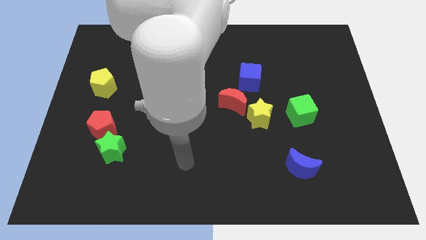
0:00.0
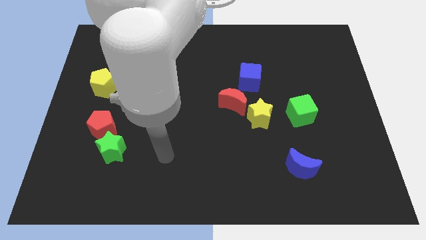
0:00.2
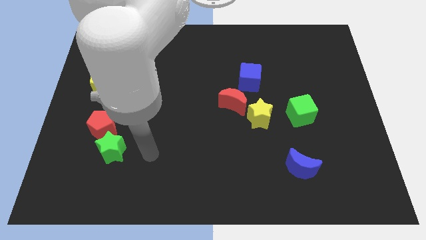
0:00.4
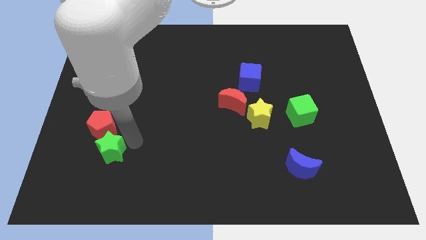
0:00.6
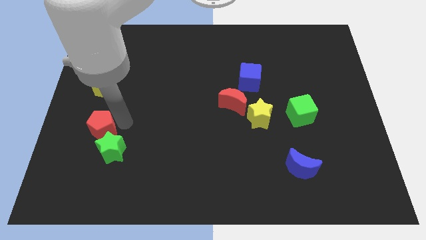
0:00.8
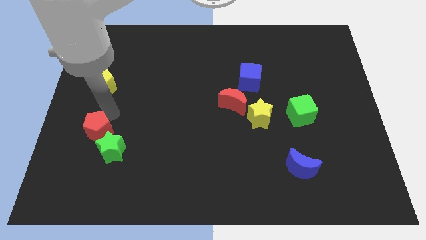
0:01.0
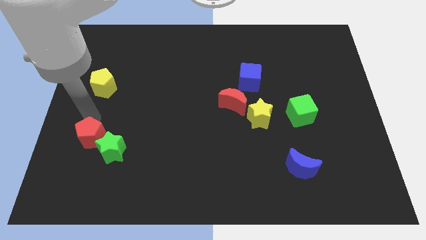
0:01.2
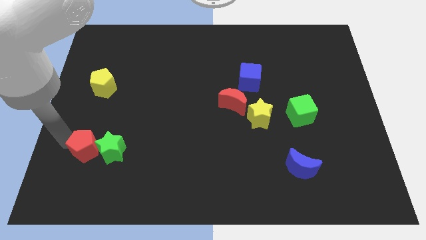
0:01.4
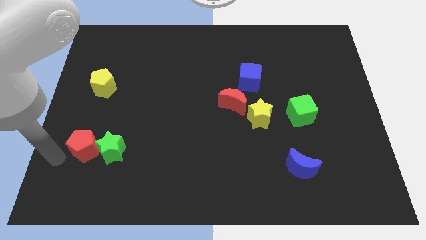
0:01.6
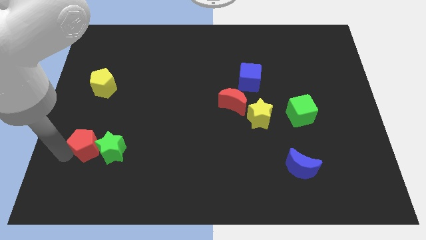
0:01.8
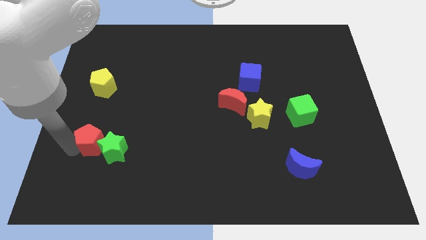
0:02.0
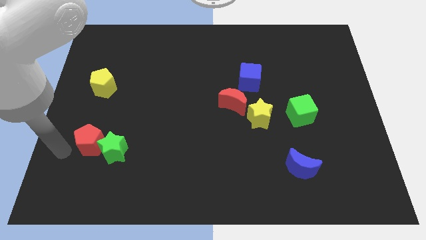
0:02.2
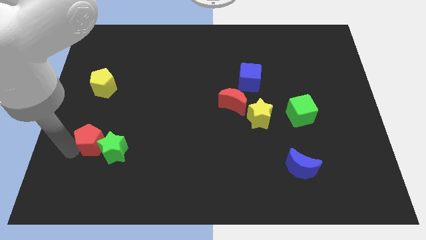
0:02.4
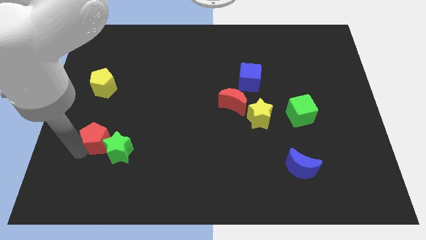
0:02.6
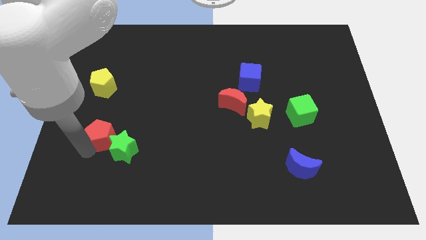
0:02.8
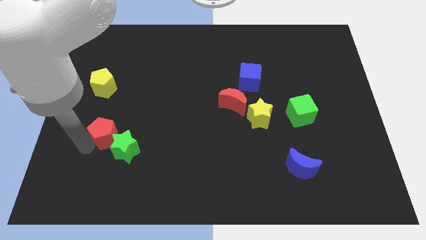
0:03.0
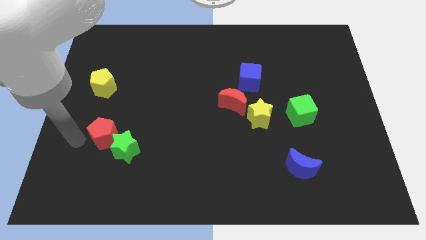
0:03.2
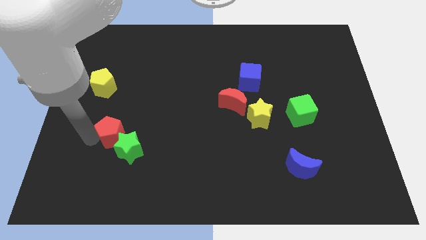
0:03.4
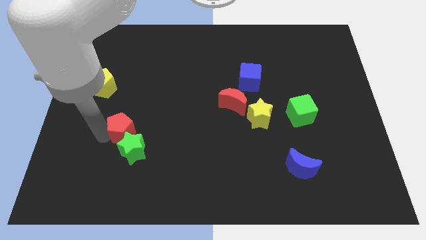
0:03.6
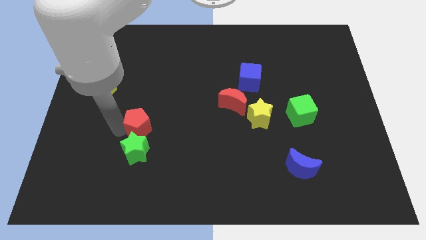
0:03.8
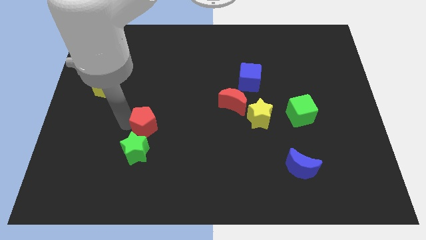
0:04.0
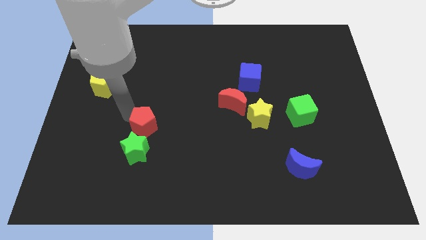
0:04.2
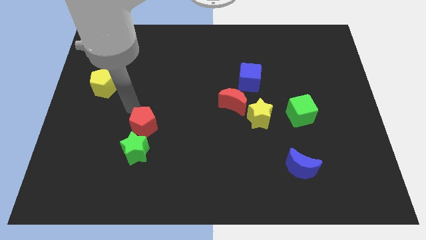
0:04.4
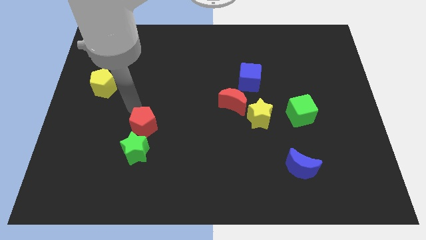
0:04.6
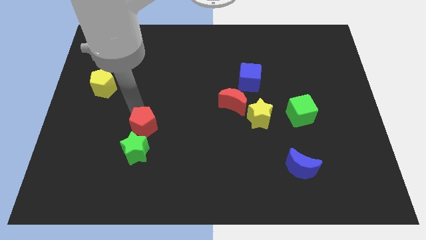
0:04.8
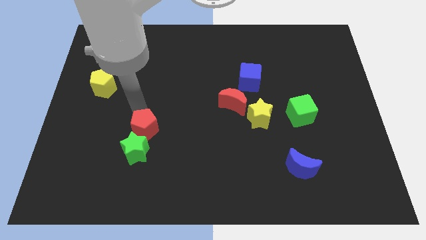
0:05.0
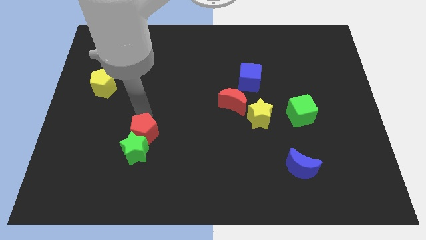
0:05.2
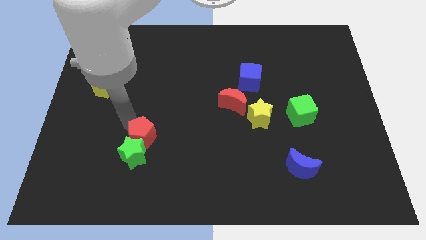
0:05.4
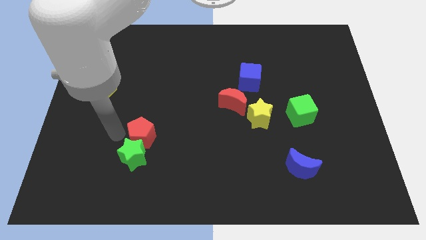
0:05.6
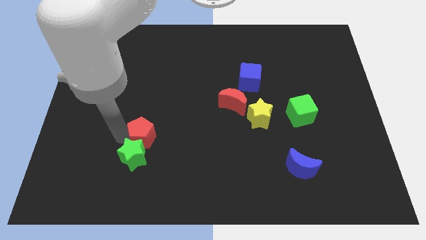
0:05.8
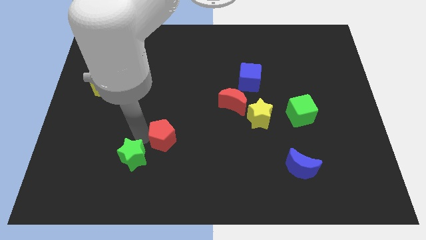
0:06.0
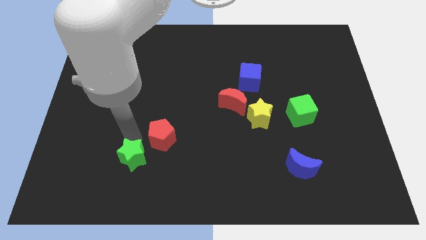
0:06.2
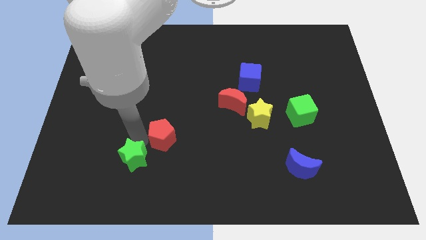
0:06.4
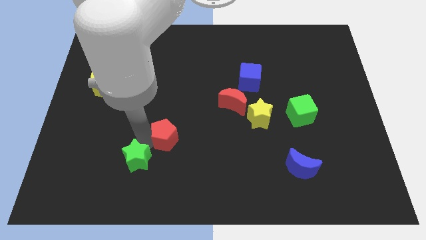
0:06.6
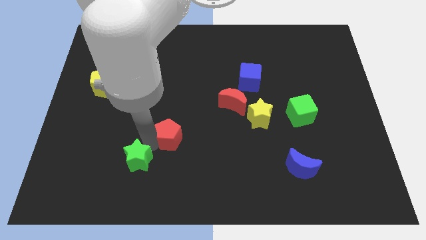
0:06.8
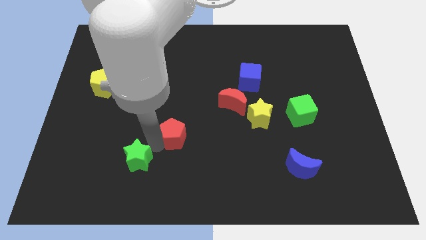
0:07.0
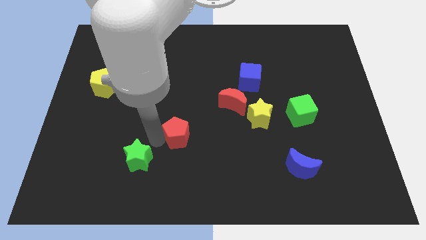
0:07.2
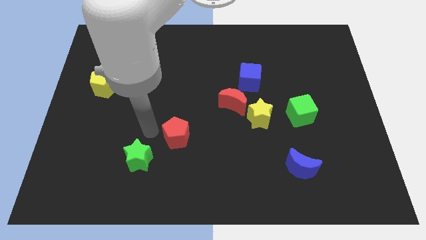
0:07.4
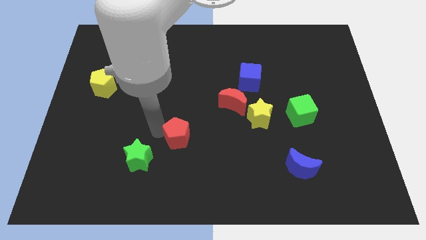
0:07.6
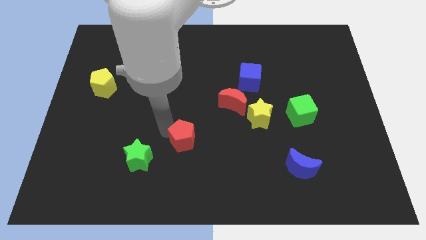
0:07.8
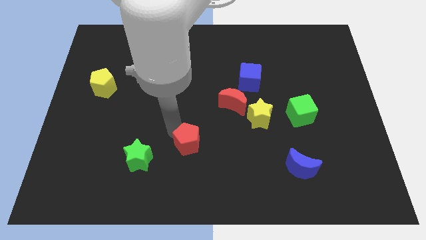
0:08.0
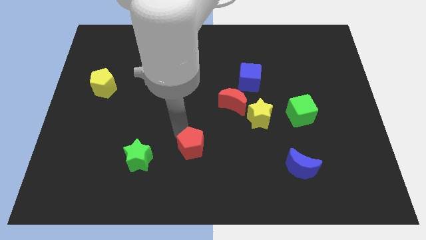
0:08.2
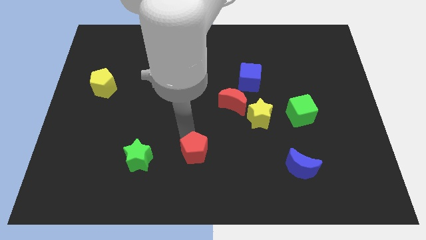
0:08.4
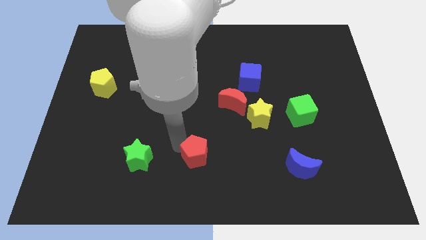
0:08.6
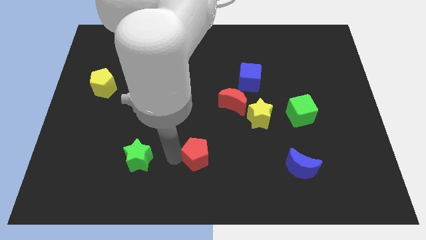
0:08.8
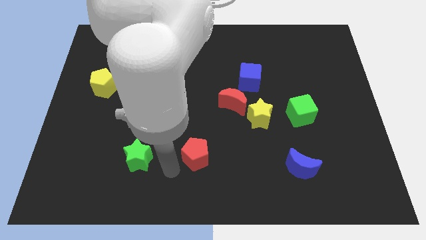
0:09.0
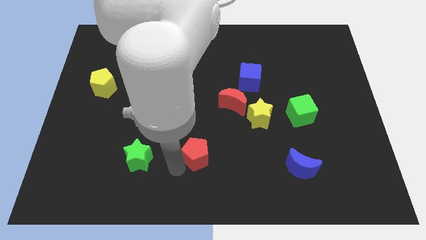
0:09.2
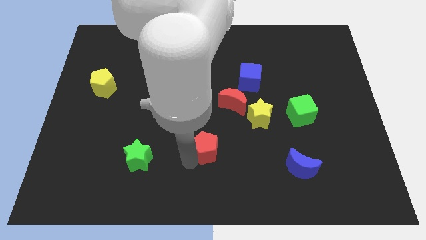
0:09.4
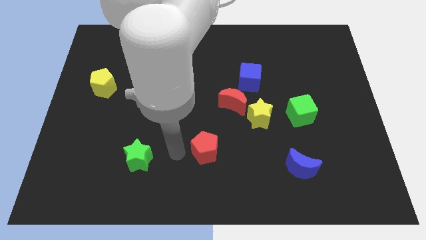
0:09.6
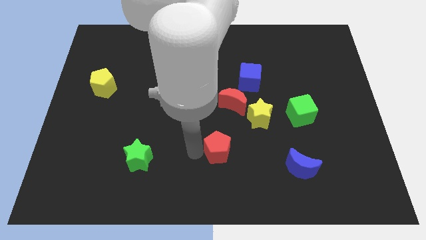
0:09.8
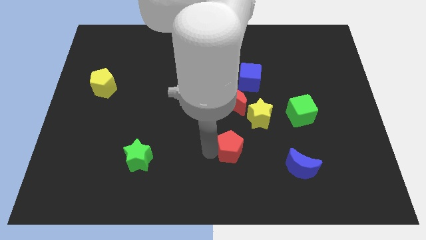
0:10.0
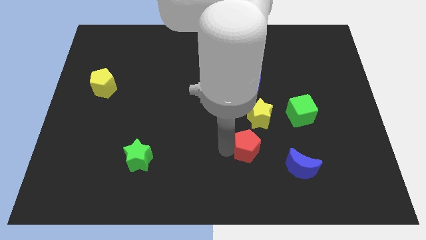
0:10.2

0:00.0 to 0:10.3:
slide the red pentagon to the bottom of the yellow star

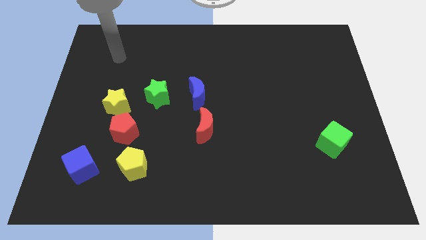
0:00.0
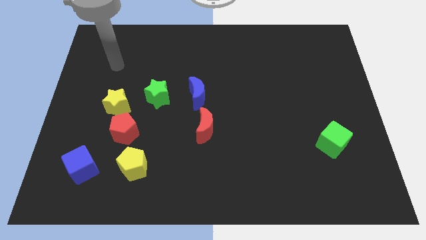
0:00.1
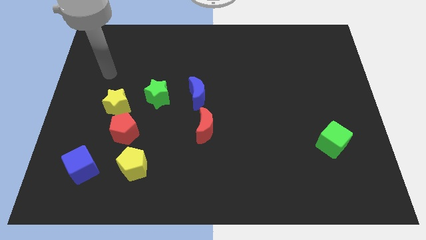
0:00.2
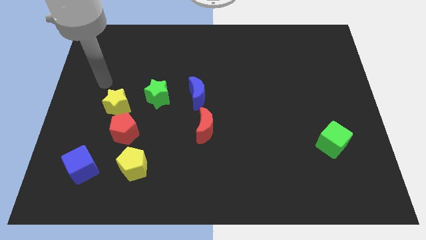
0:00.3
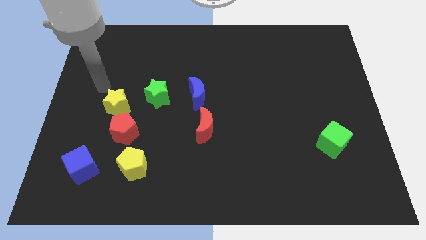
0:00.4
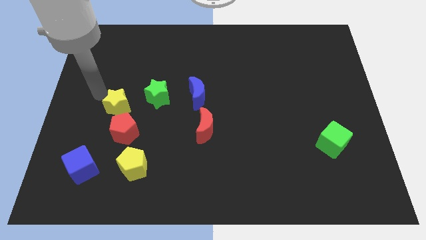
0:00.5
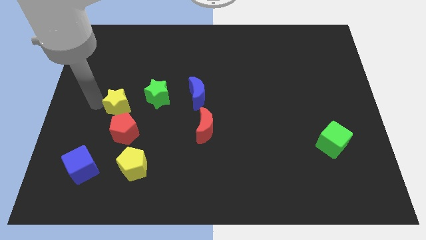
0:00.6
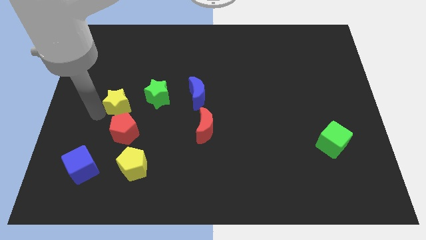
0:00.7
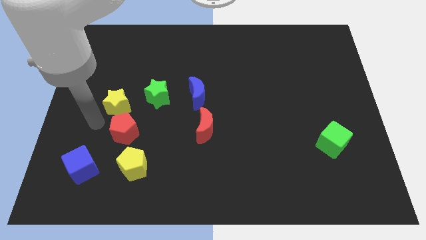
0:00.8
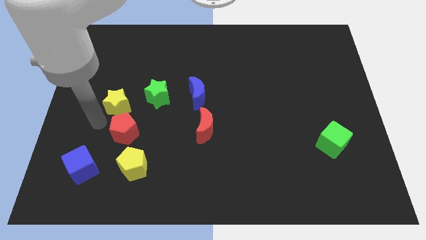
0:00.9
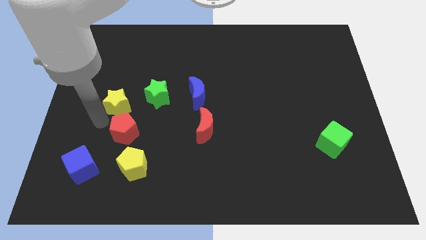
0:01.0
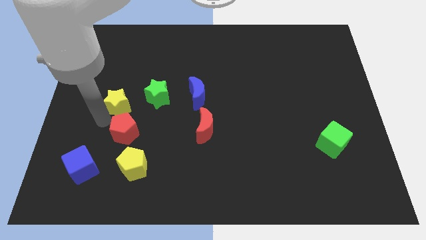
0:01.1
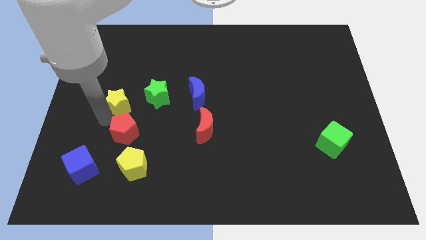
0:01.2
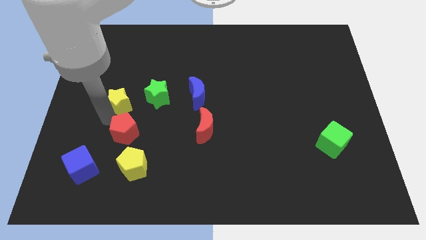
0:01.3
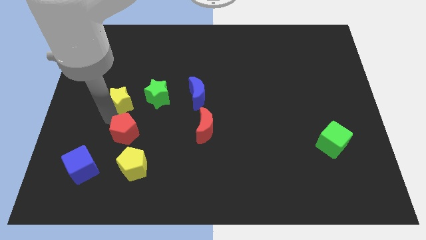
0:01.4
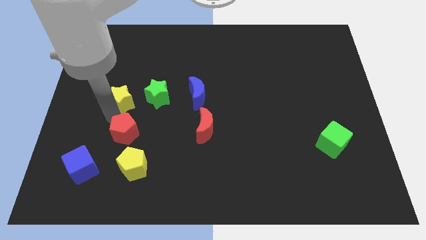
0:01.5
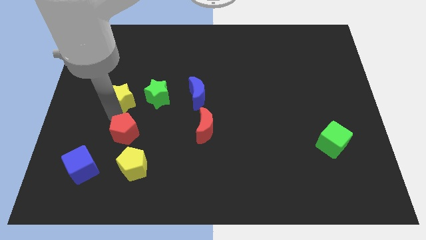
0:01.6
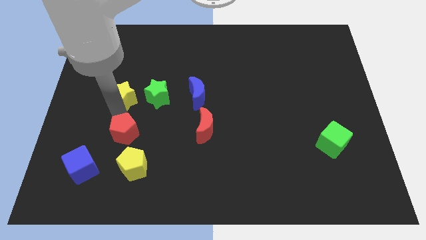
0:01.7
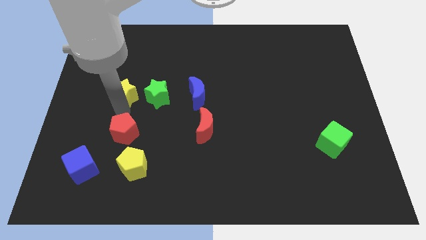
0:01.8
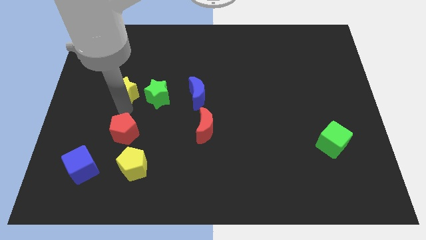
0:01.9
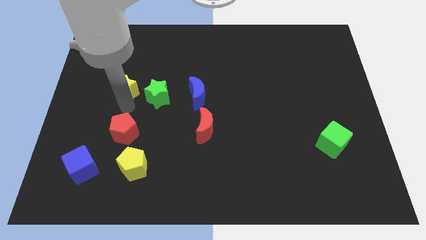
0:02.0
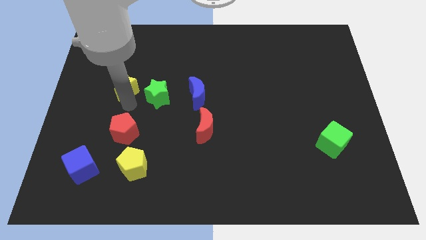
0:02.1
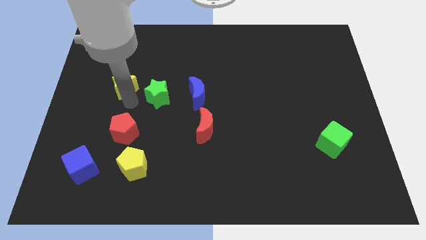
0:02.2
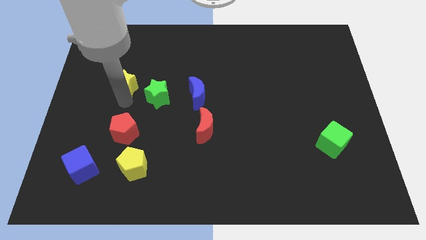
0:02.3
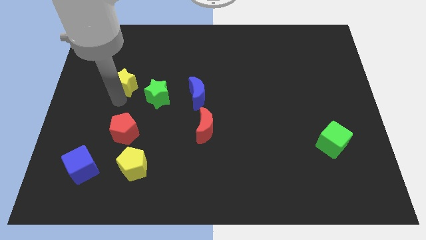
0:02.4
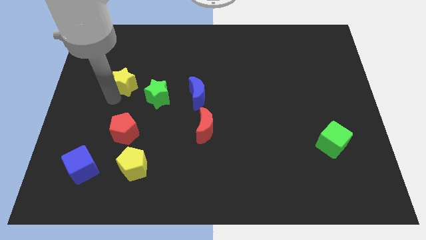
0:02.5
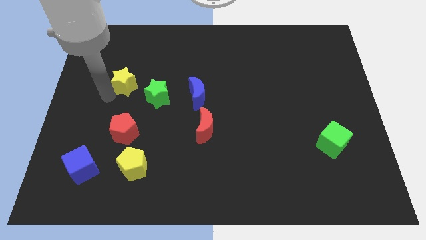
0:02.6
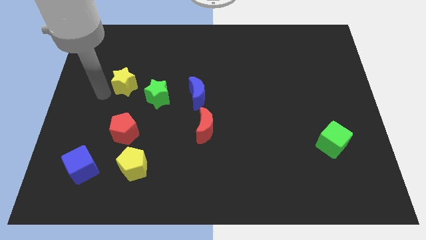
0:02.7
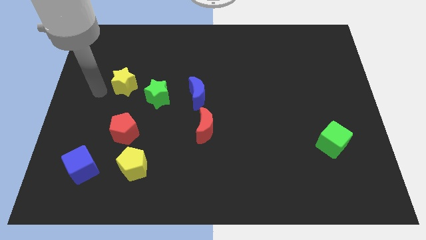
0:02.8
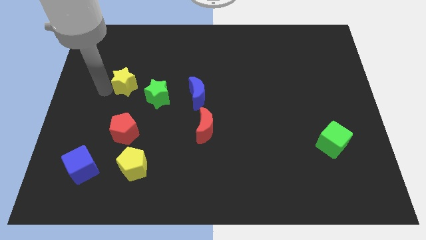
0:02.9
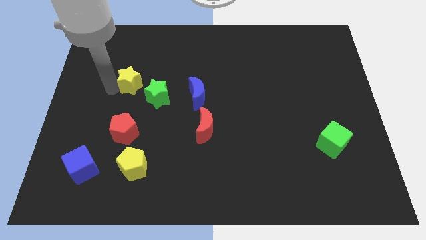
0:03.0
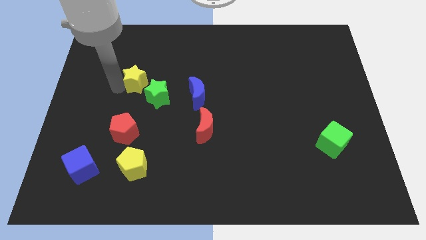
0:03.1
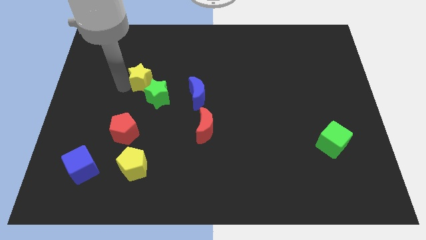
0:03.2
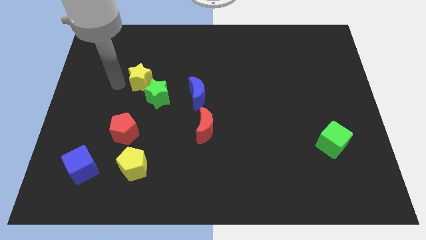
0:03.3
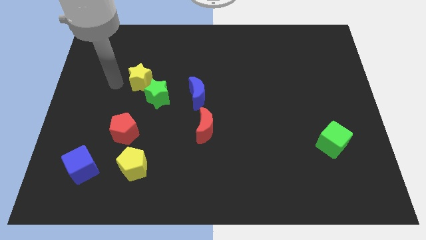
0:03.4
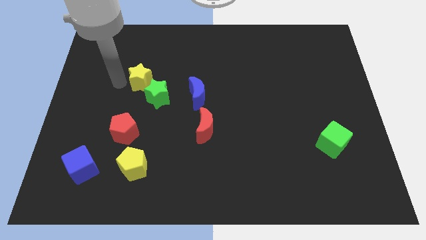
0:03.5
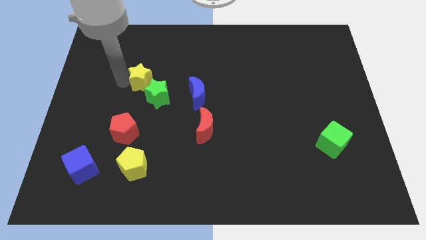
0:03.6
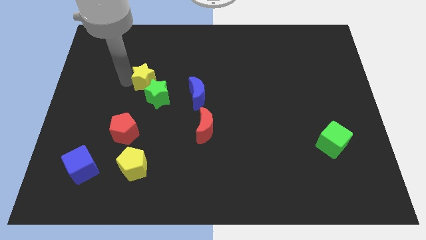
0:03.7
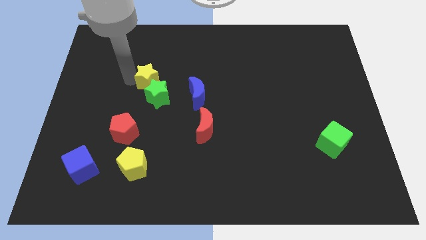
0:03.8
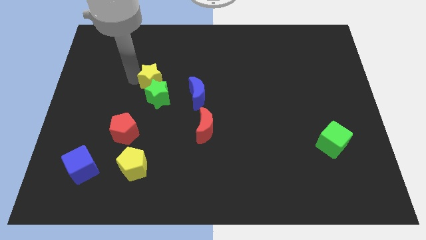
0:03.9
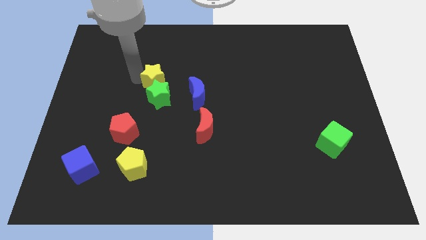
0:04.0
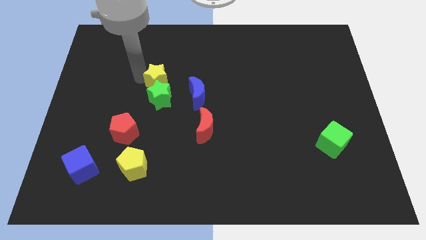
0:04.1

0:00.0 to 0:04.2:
slide the yellow star to the top right side of the green star
